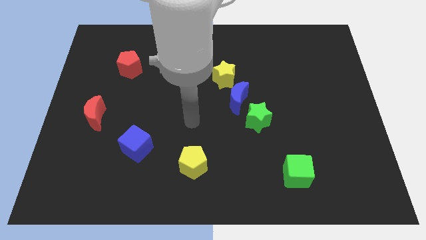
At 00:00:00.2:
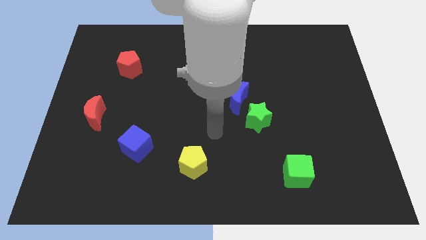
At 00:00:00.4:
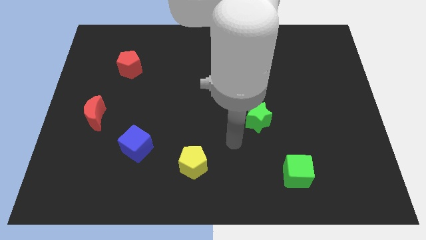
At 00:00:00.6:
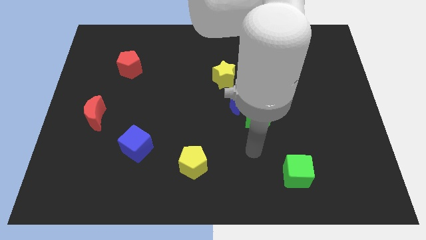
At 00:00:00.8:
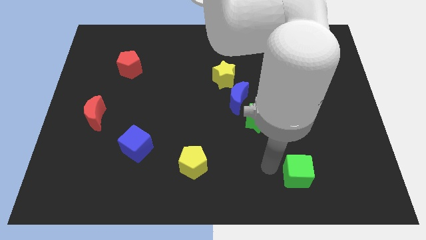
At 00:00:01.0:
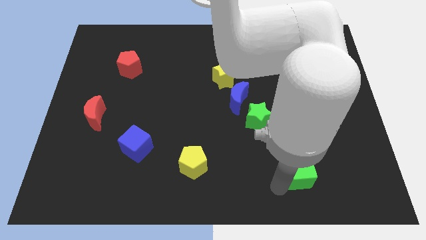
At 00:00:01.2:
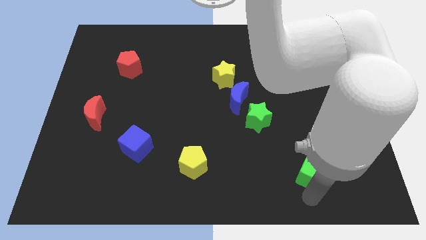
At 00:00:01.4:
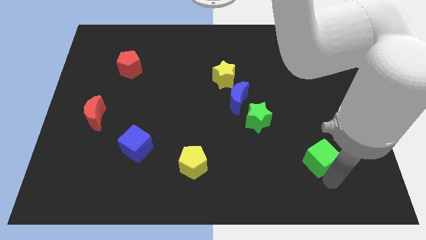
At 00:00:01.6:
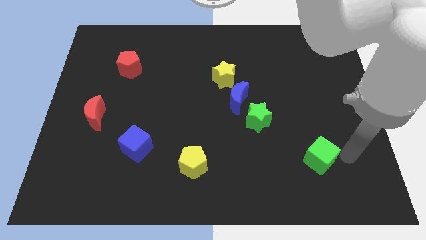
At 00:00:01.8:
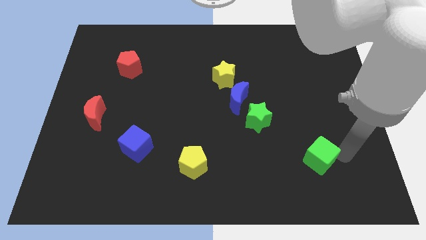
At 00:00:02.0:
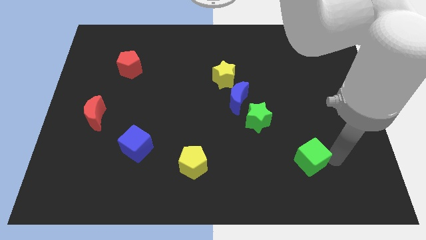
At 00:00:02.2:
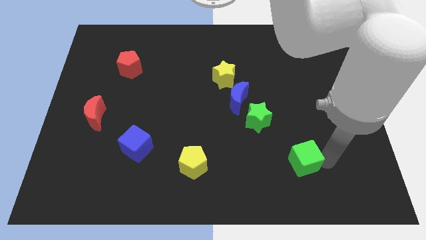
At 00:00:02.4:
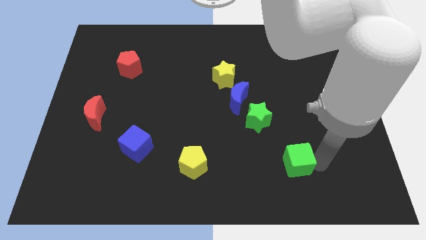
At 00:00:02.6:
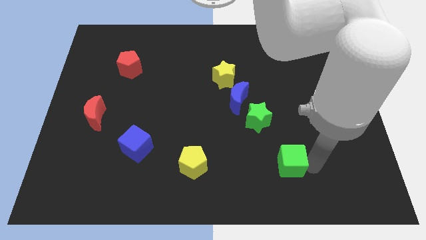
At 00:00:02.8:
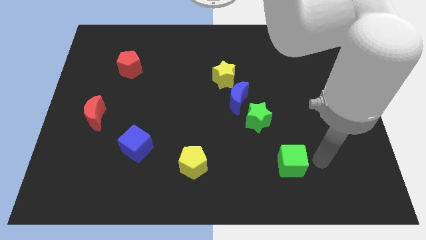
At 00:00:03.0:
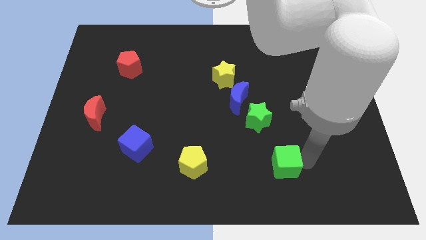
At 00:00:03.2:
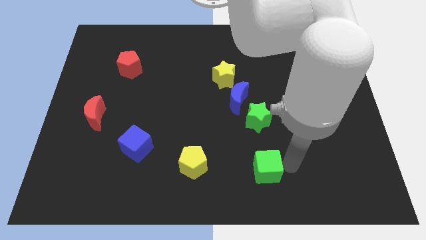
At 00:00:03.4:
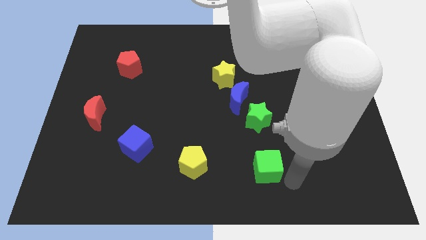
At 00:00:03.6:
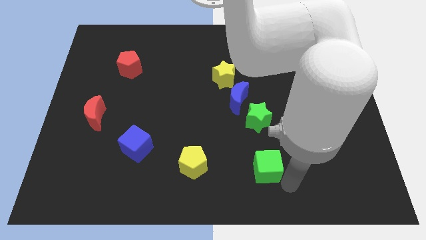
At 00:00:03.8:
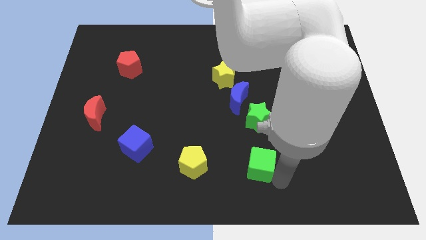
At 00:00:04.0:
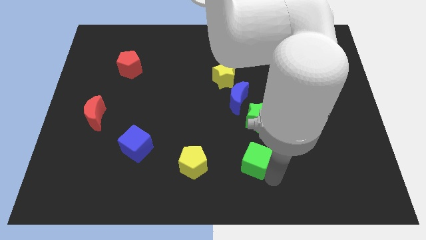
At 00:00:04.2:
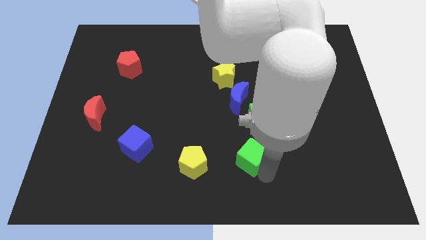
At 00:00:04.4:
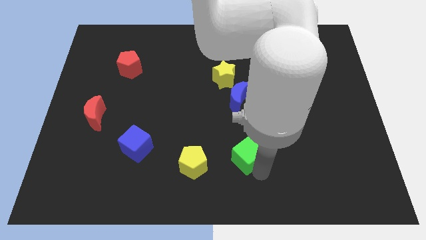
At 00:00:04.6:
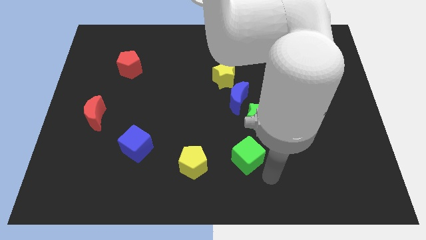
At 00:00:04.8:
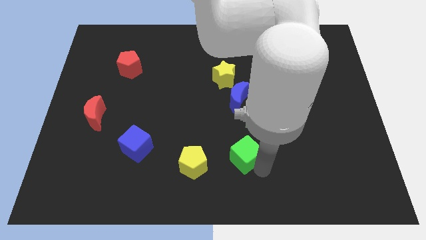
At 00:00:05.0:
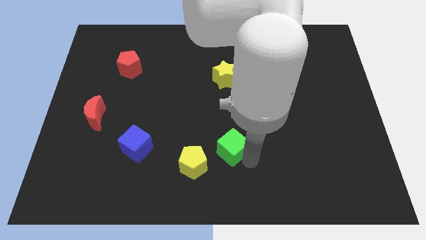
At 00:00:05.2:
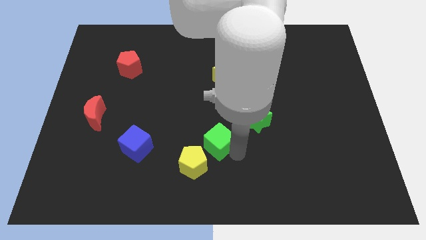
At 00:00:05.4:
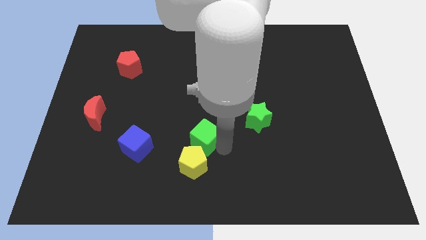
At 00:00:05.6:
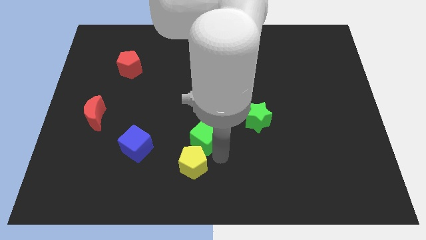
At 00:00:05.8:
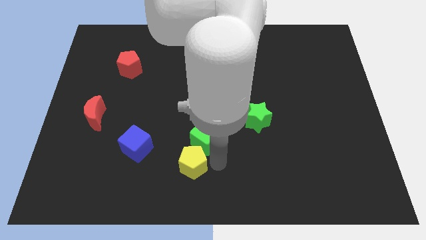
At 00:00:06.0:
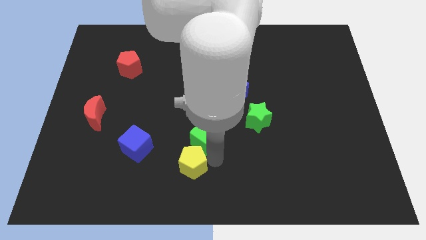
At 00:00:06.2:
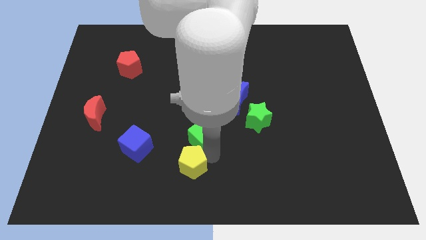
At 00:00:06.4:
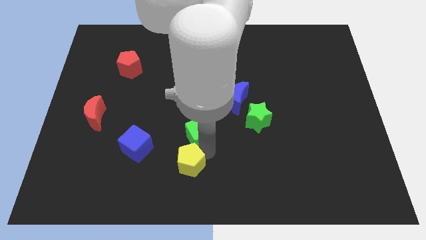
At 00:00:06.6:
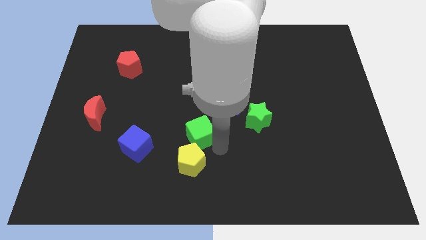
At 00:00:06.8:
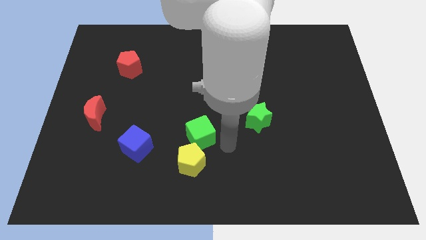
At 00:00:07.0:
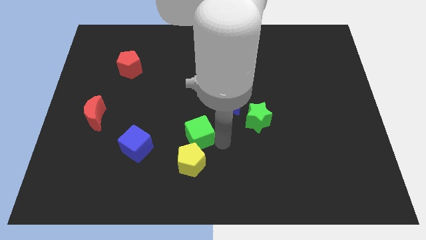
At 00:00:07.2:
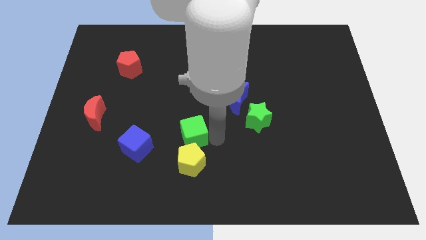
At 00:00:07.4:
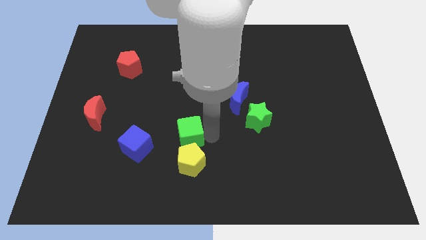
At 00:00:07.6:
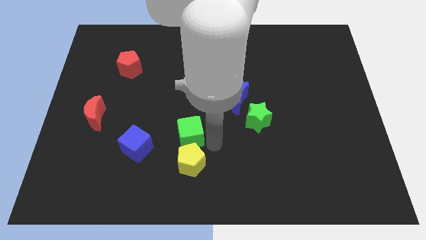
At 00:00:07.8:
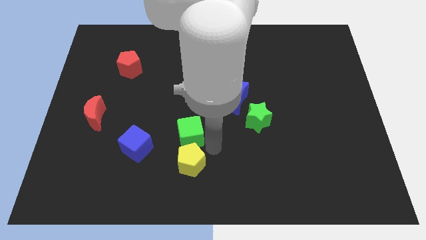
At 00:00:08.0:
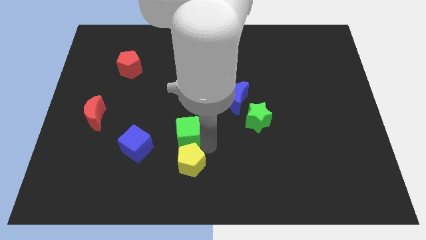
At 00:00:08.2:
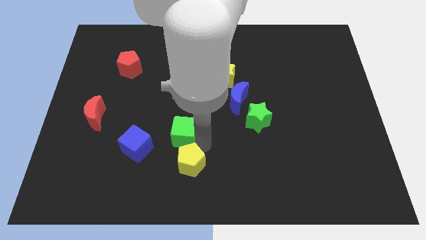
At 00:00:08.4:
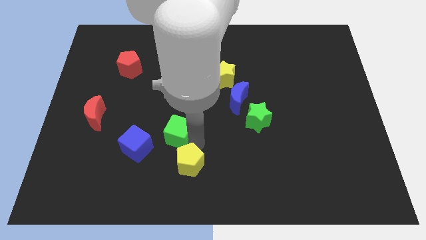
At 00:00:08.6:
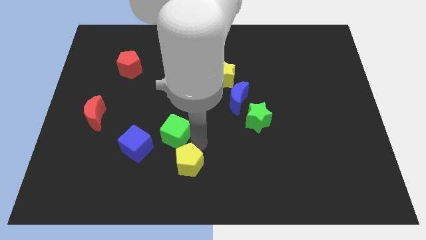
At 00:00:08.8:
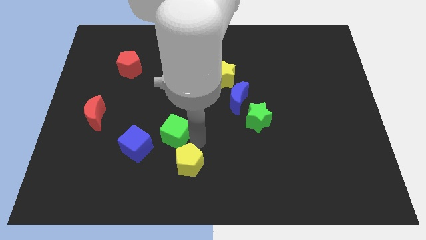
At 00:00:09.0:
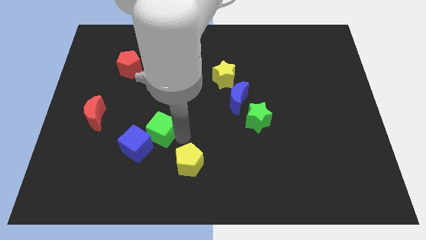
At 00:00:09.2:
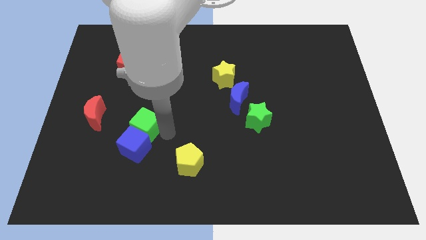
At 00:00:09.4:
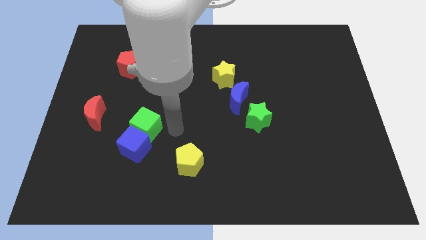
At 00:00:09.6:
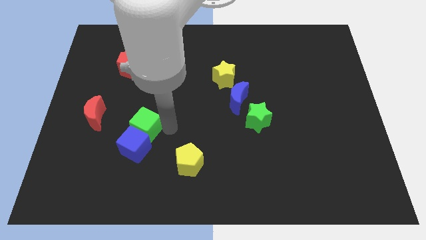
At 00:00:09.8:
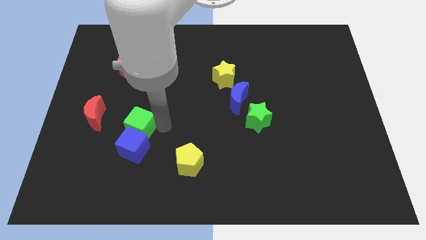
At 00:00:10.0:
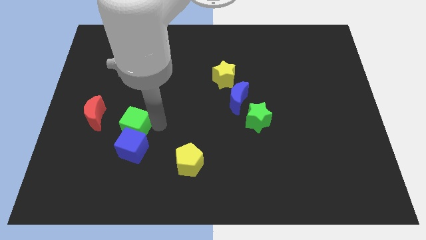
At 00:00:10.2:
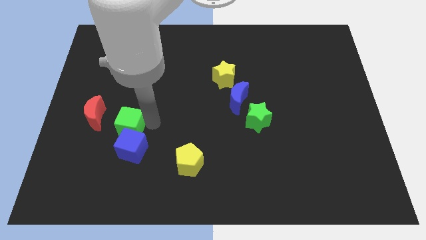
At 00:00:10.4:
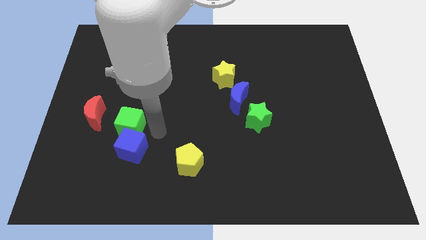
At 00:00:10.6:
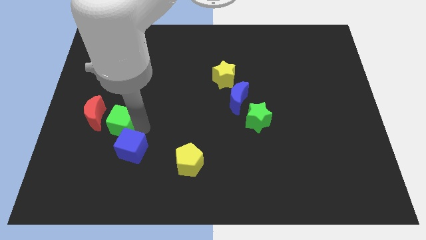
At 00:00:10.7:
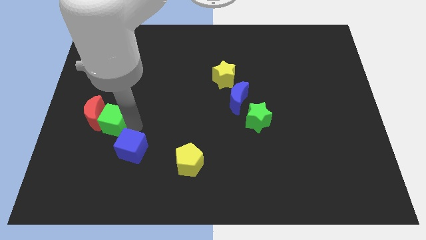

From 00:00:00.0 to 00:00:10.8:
push the green cube towards the red moon

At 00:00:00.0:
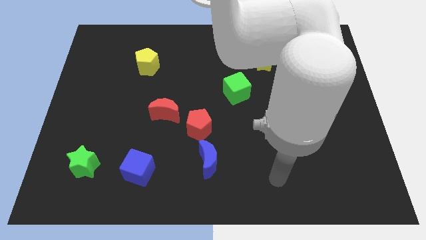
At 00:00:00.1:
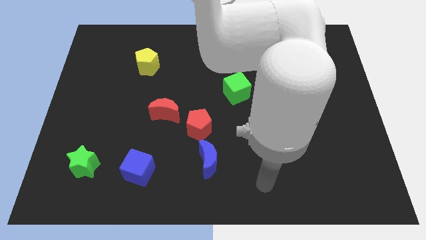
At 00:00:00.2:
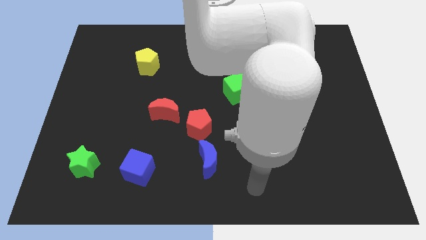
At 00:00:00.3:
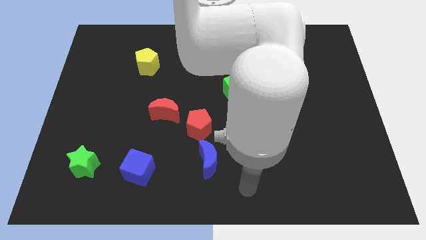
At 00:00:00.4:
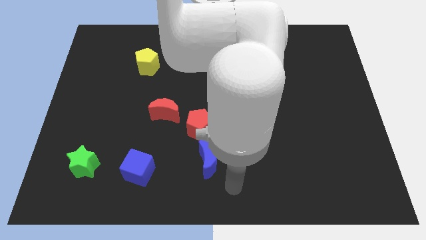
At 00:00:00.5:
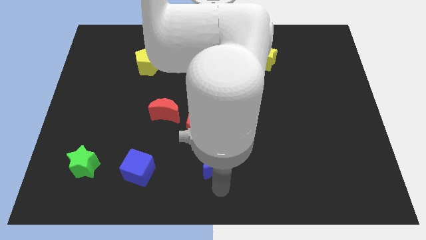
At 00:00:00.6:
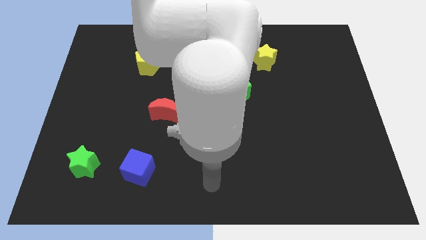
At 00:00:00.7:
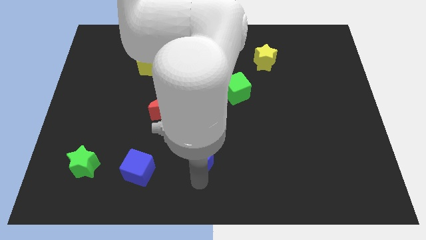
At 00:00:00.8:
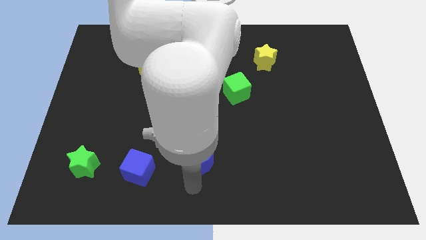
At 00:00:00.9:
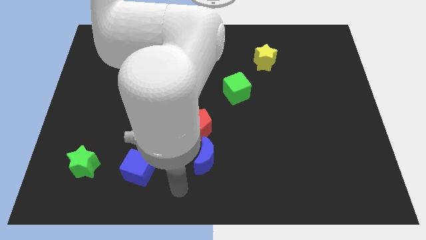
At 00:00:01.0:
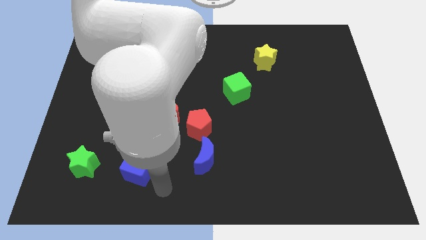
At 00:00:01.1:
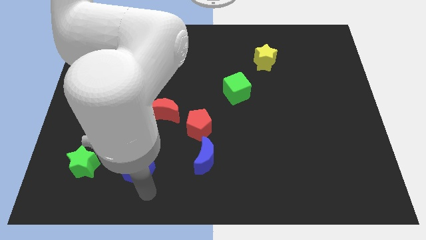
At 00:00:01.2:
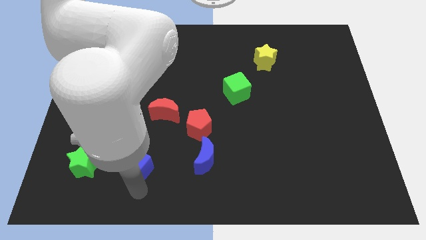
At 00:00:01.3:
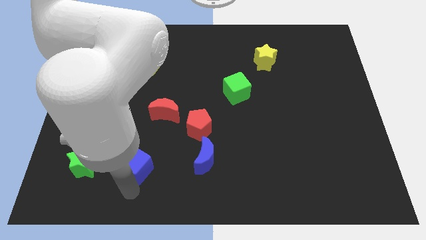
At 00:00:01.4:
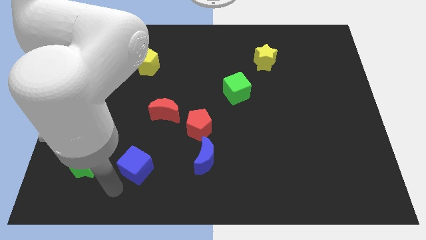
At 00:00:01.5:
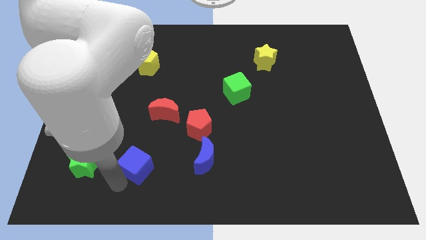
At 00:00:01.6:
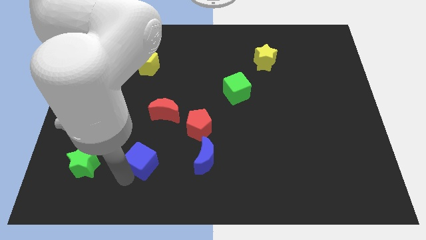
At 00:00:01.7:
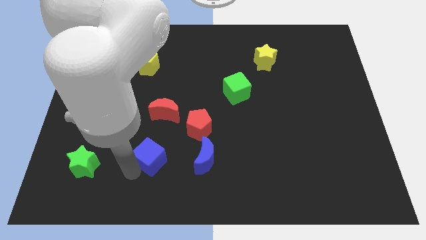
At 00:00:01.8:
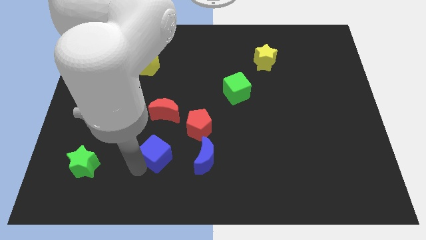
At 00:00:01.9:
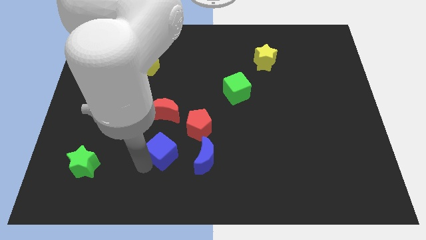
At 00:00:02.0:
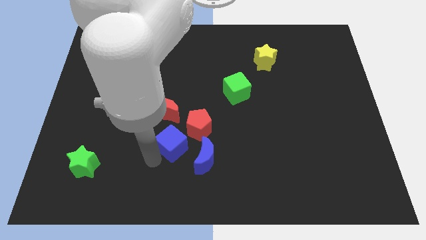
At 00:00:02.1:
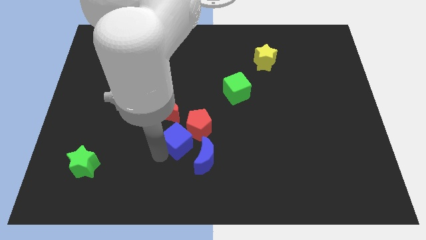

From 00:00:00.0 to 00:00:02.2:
slide the blue cube to the red pentagon
